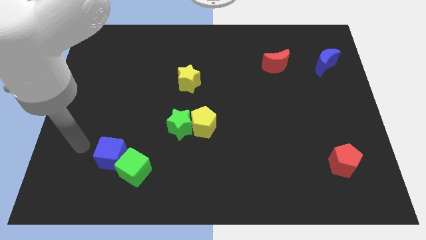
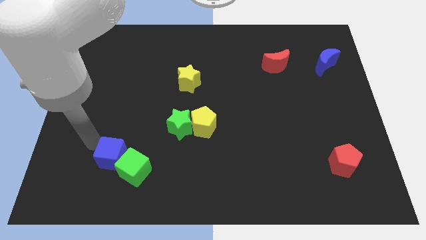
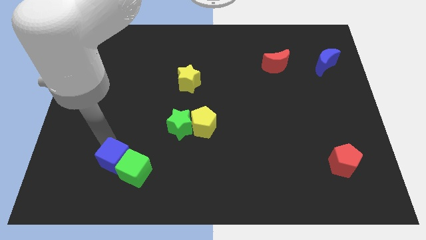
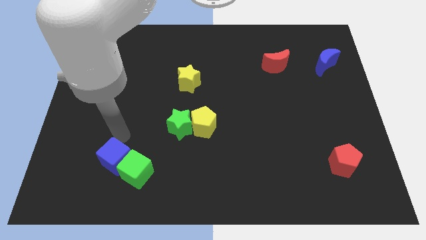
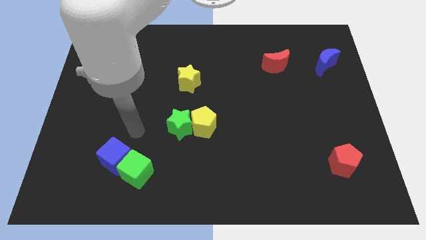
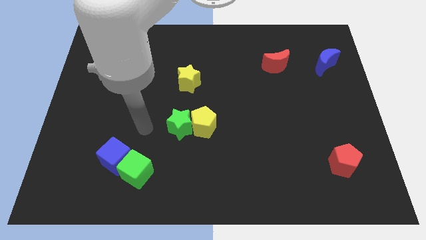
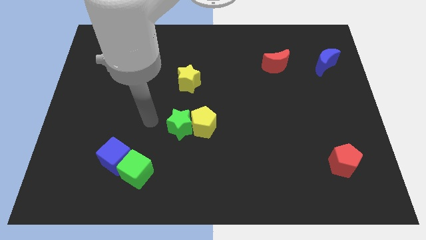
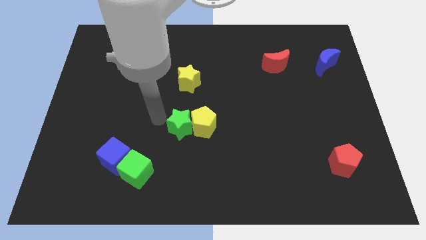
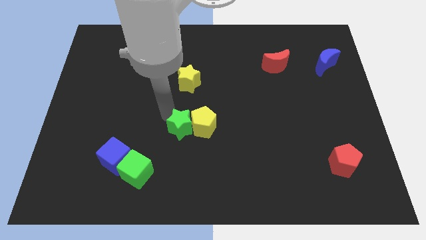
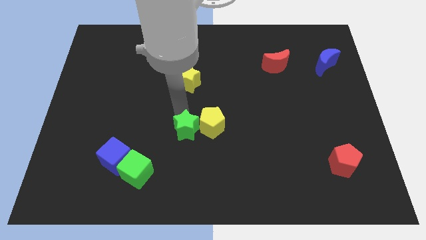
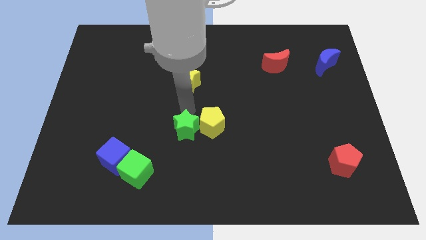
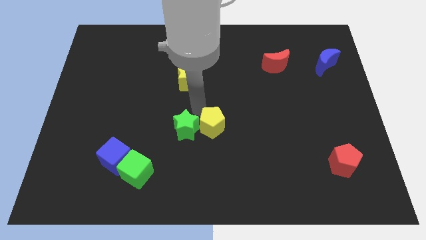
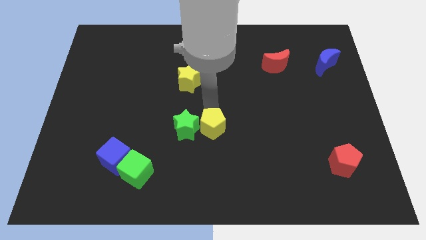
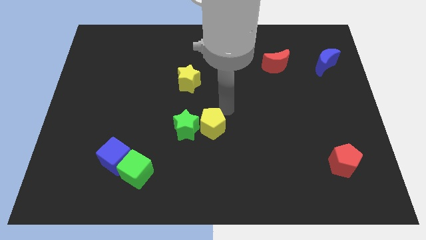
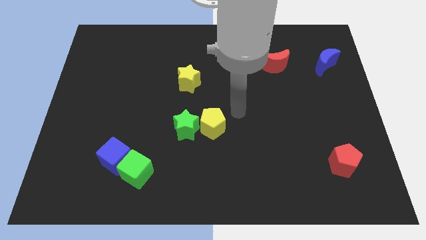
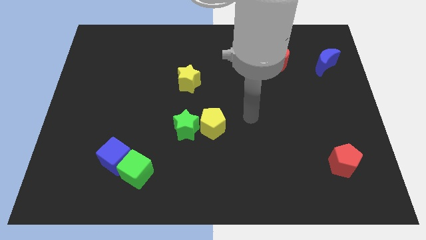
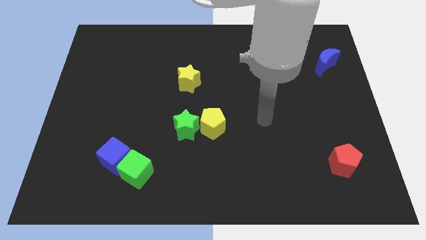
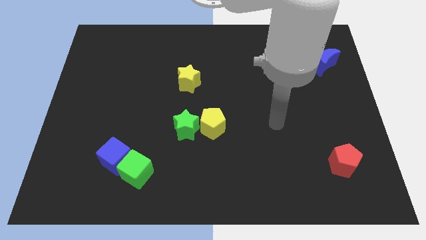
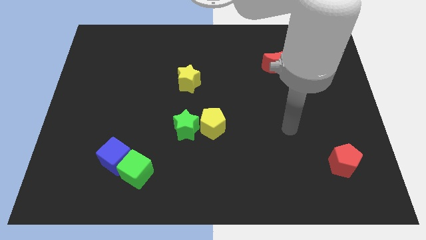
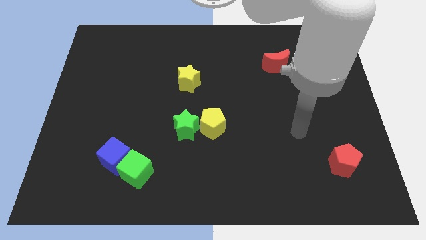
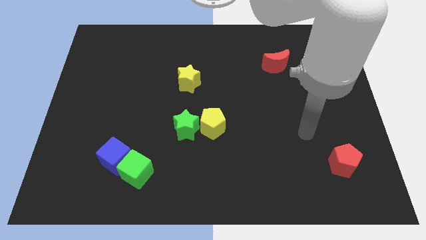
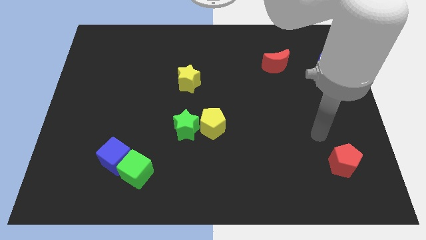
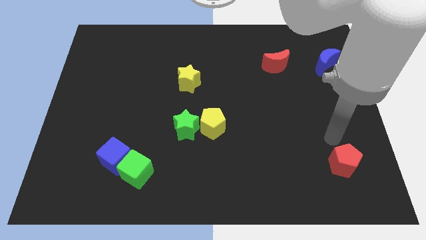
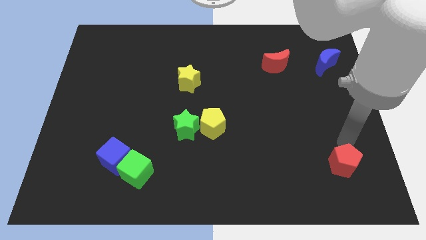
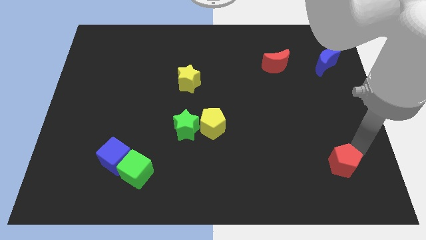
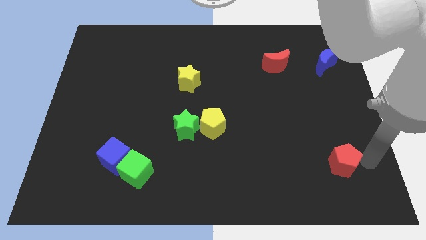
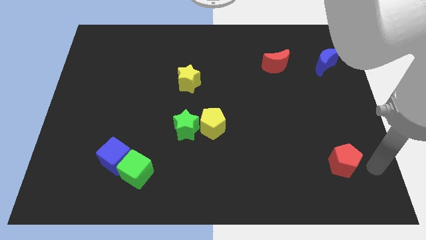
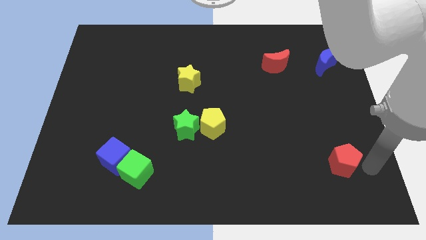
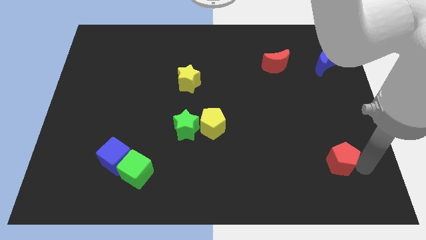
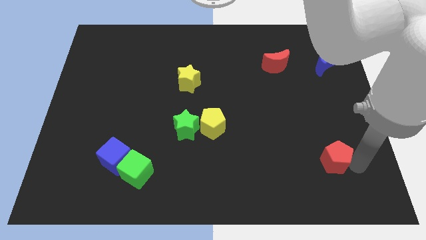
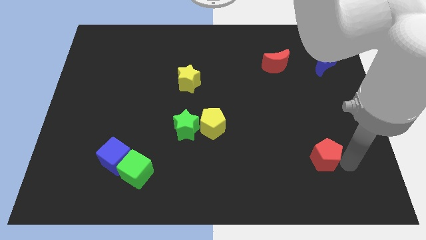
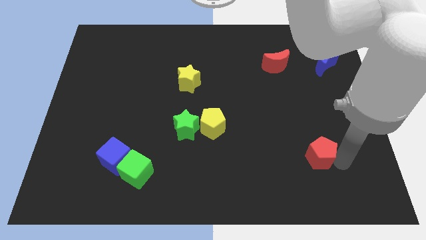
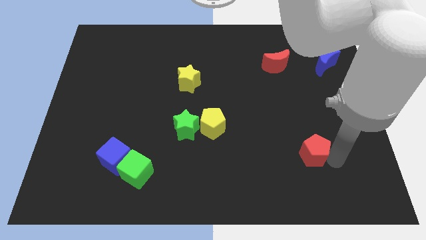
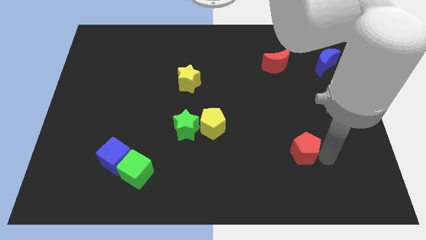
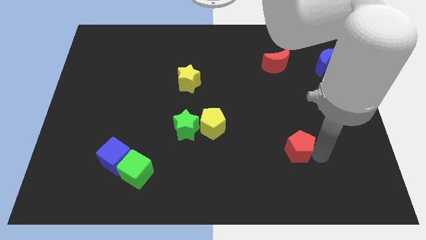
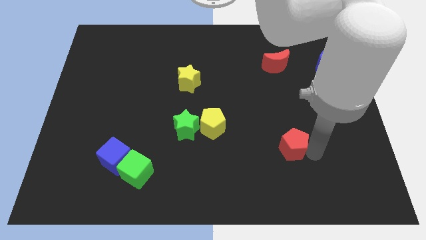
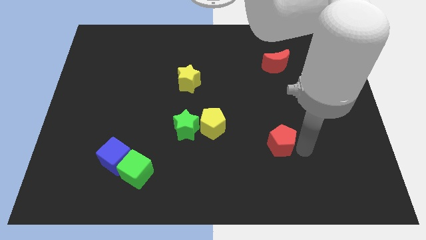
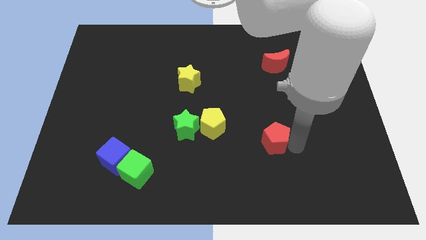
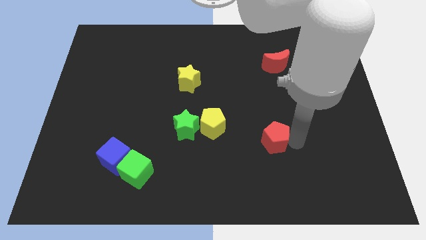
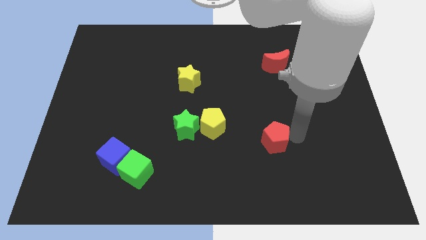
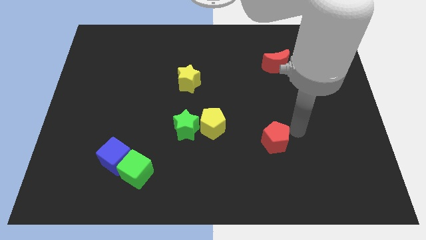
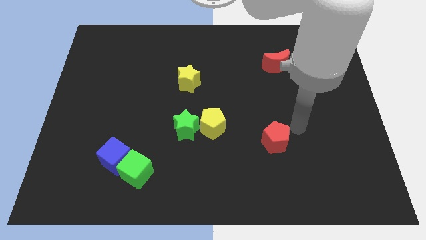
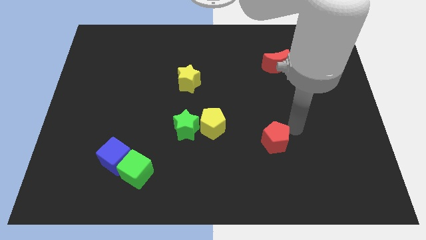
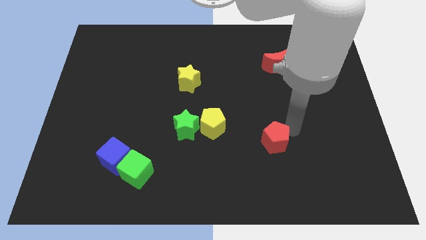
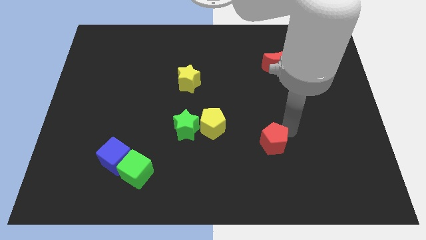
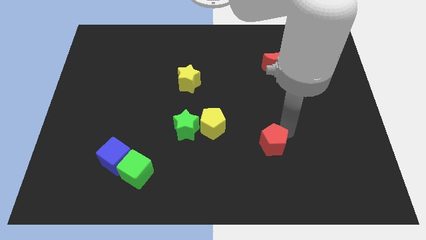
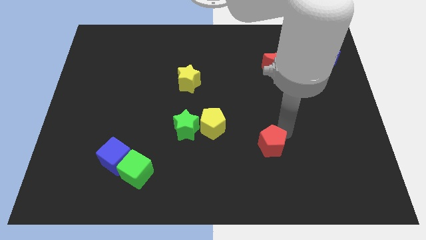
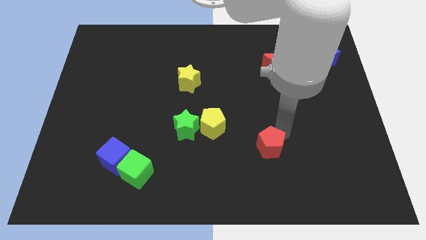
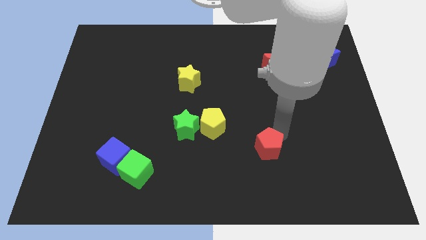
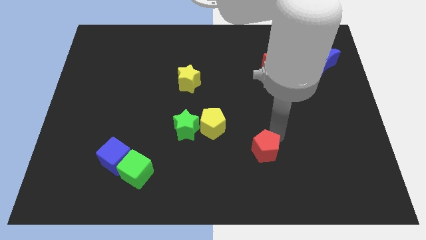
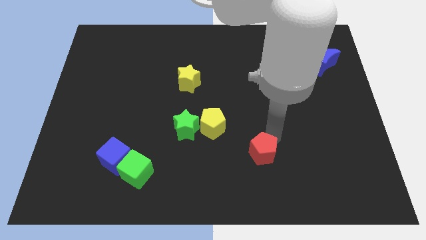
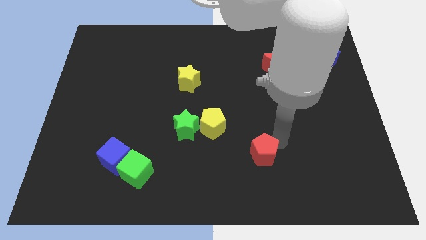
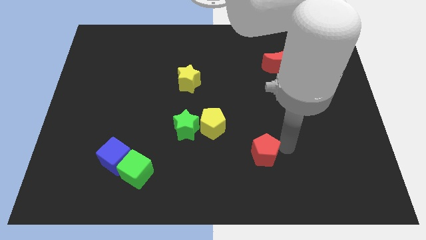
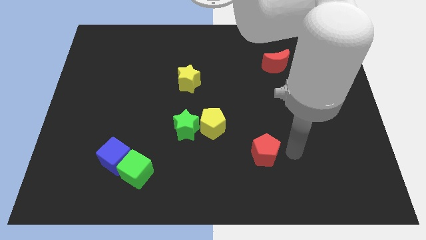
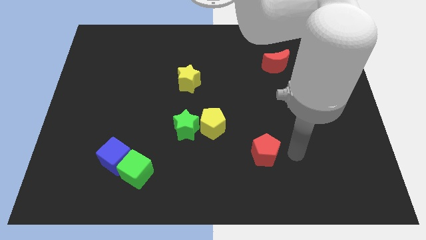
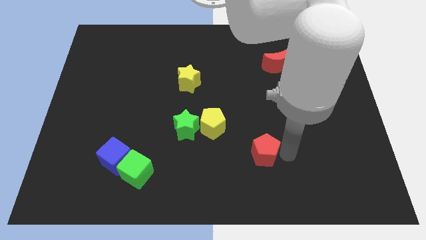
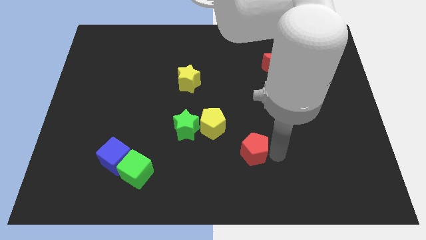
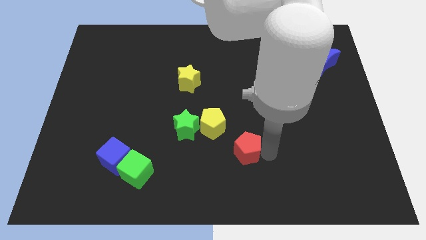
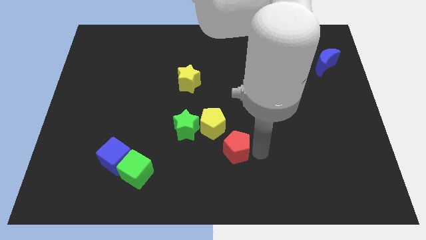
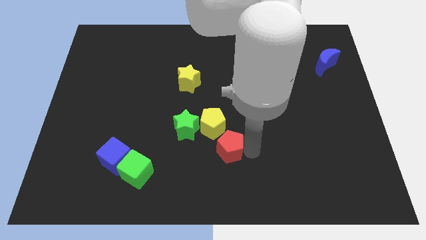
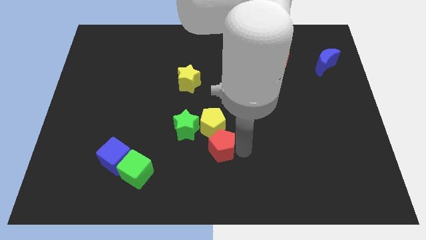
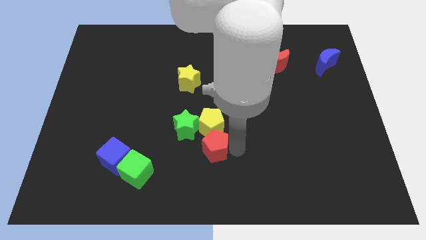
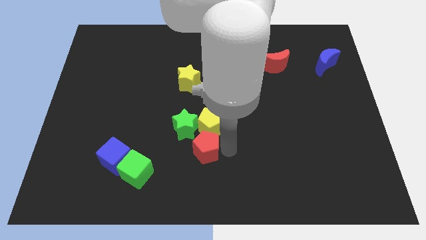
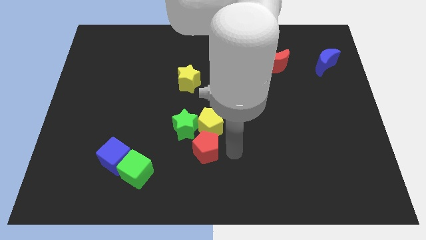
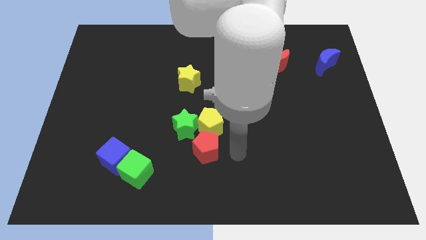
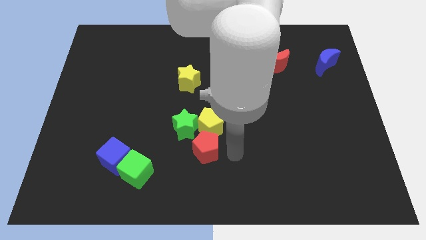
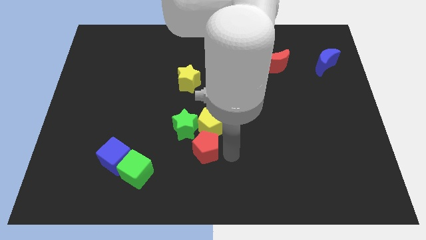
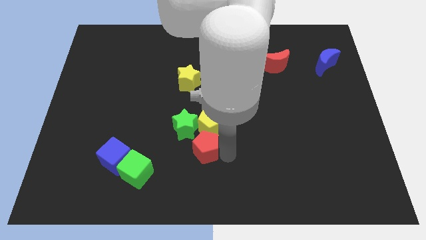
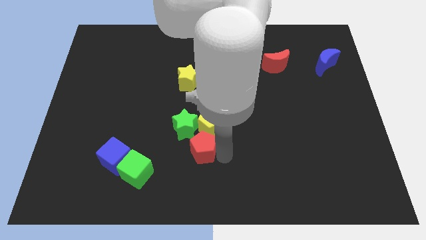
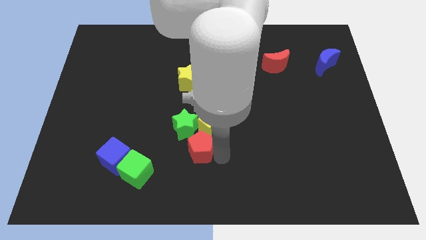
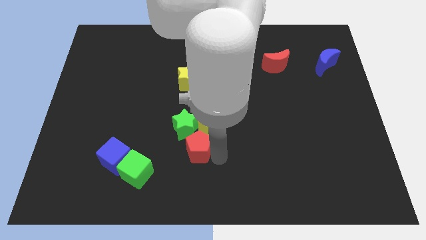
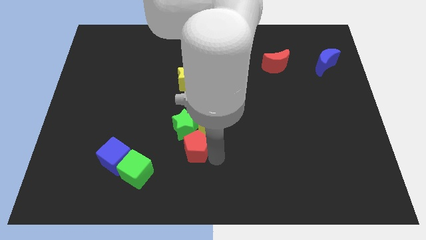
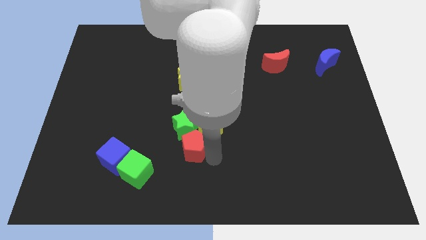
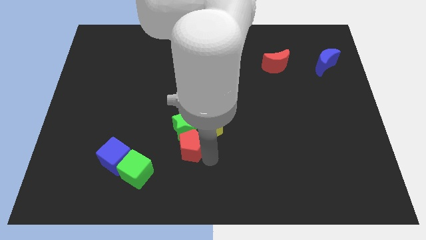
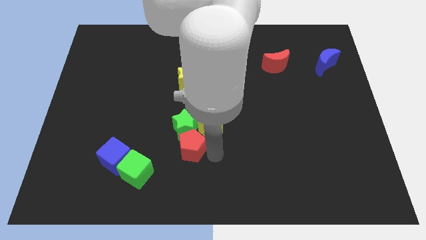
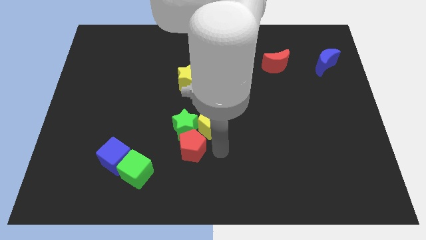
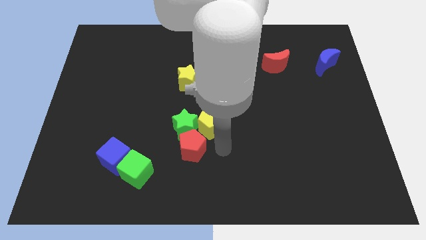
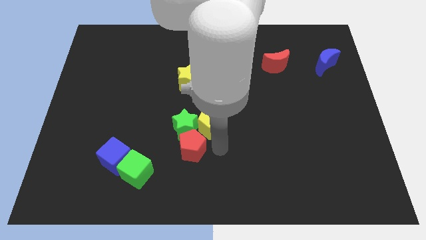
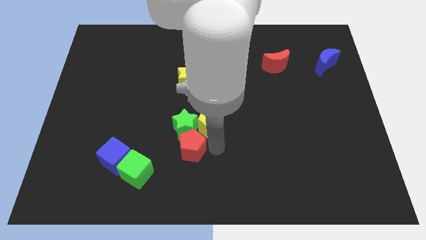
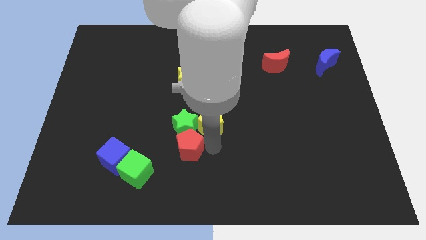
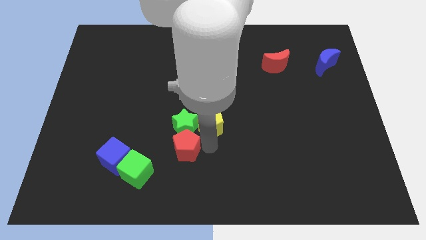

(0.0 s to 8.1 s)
slide the red pentagon diagonally up and to the right of the green cube
